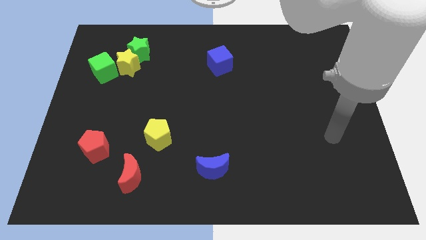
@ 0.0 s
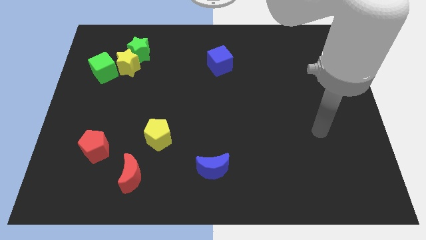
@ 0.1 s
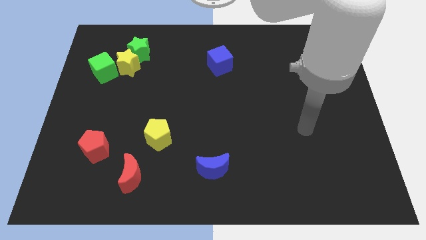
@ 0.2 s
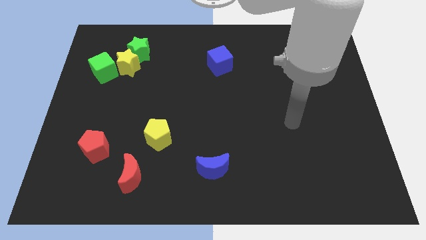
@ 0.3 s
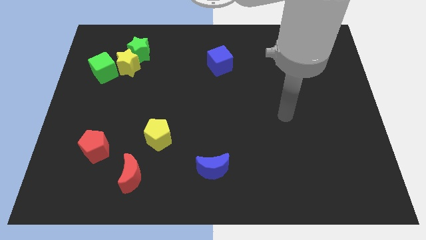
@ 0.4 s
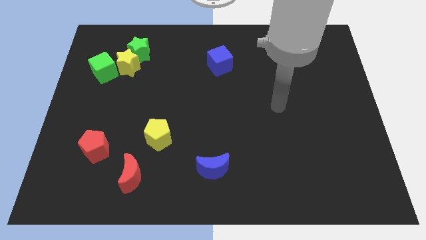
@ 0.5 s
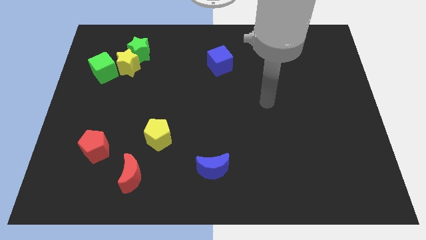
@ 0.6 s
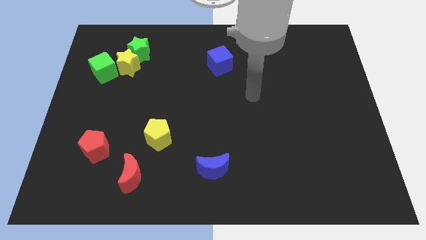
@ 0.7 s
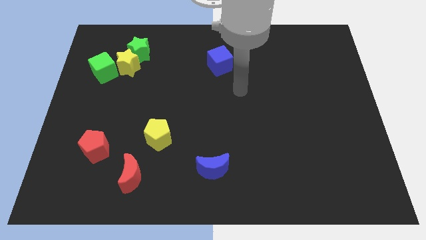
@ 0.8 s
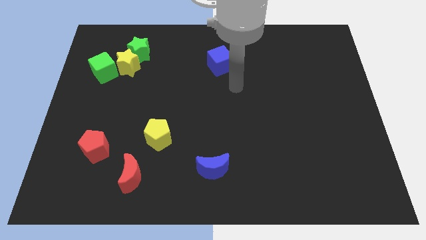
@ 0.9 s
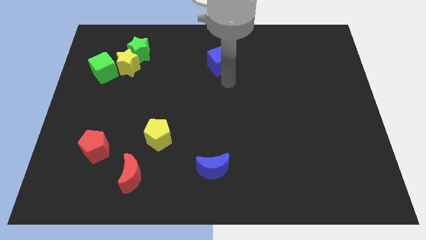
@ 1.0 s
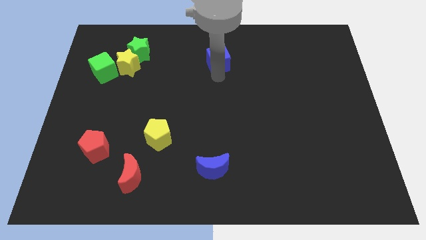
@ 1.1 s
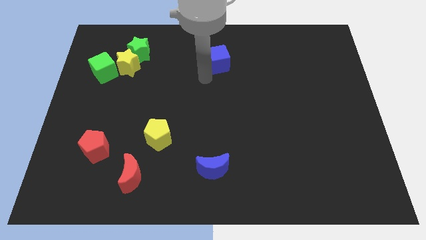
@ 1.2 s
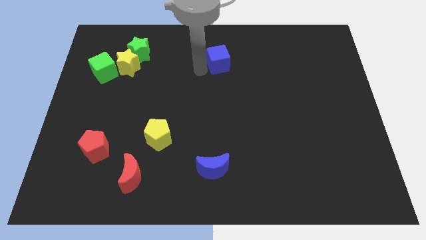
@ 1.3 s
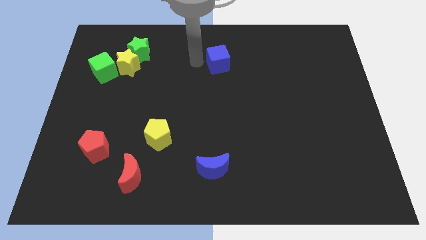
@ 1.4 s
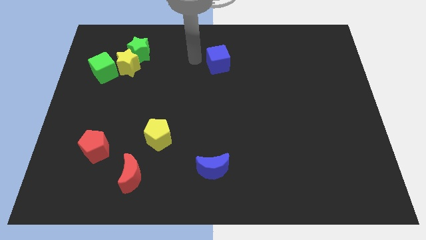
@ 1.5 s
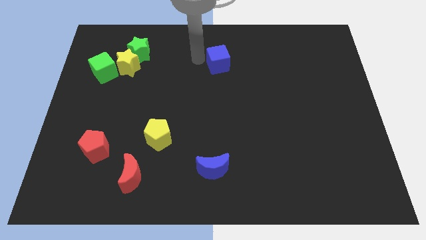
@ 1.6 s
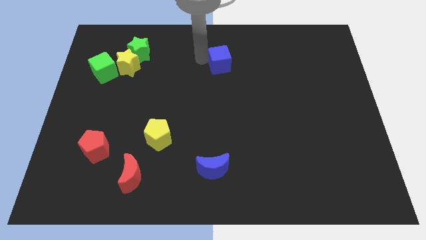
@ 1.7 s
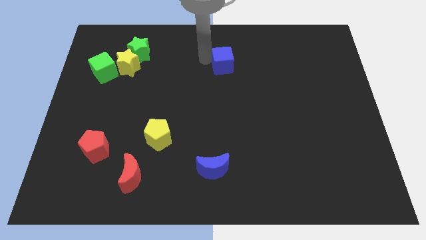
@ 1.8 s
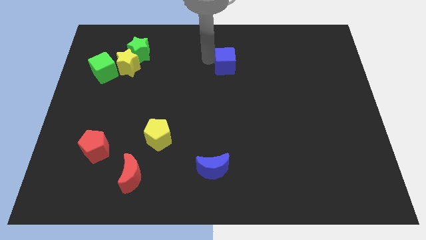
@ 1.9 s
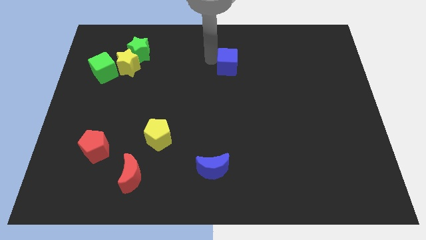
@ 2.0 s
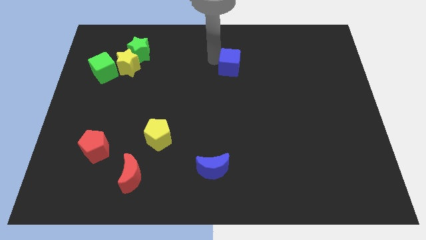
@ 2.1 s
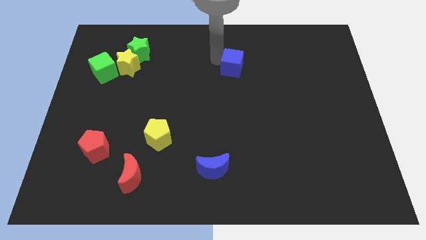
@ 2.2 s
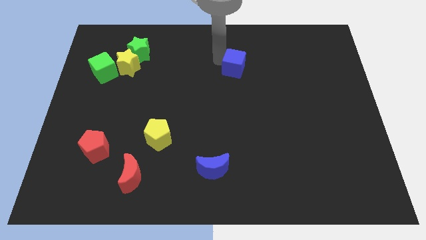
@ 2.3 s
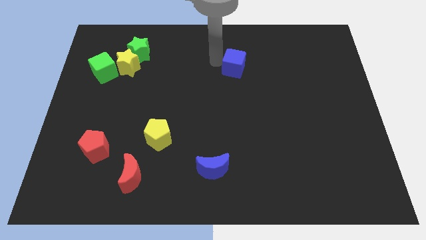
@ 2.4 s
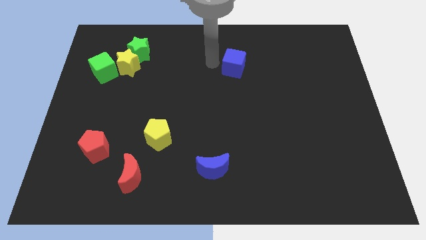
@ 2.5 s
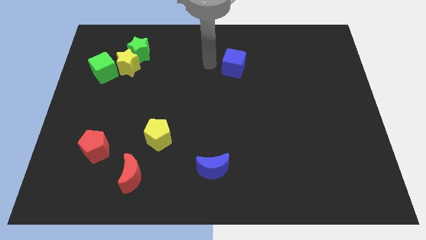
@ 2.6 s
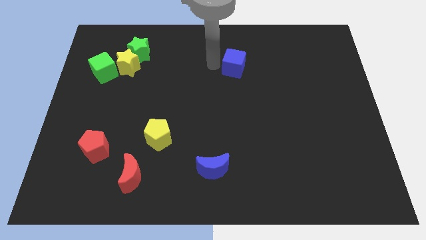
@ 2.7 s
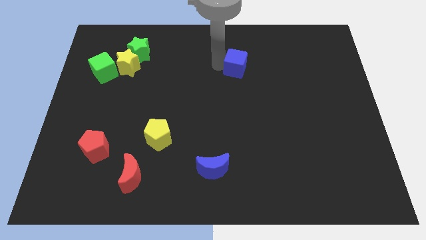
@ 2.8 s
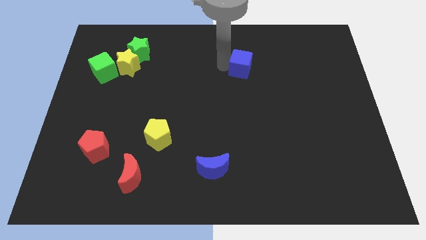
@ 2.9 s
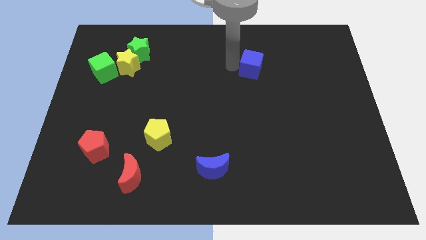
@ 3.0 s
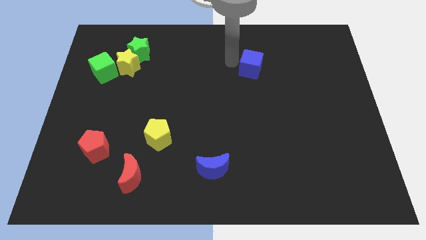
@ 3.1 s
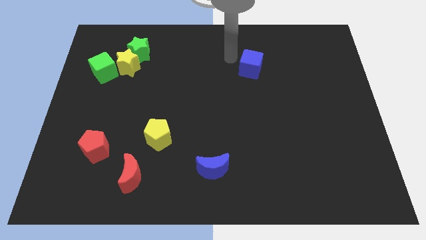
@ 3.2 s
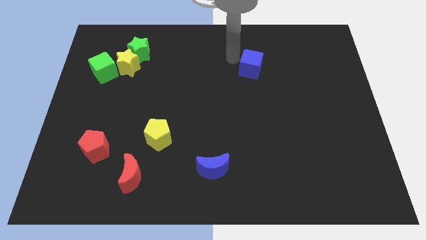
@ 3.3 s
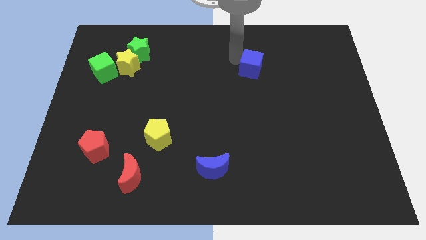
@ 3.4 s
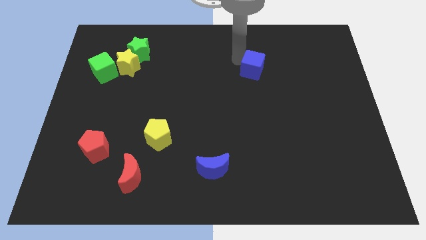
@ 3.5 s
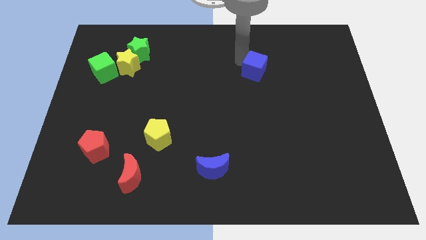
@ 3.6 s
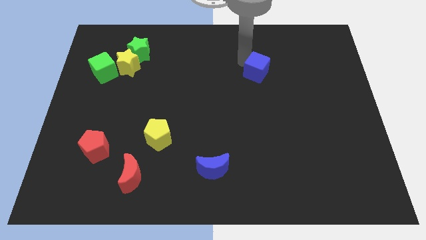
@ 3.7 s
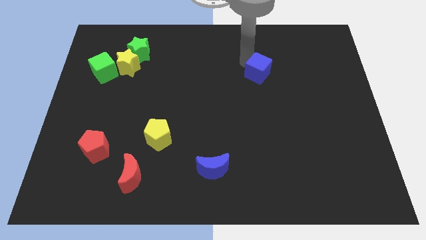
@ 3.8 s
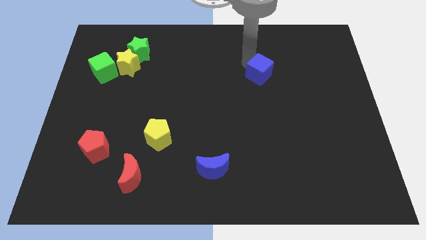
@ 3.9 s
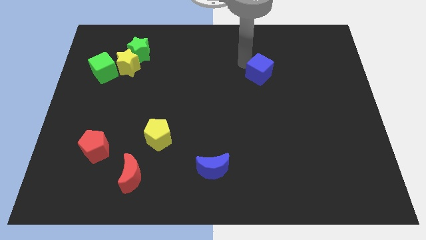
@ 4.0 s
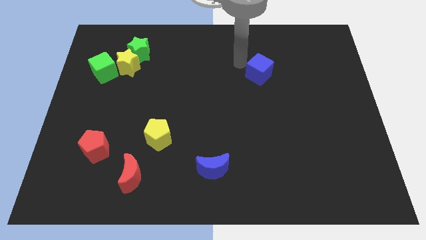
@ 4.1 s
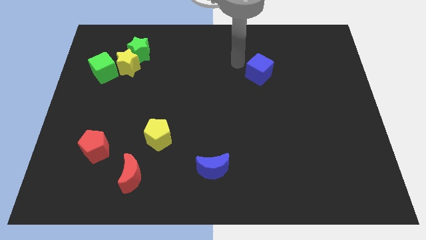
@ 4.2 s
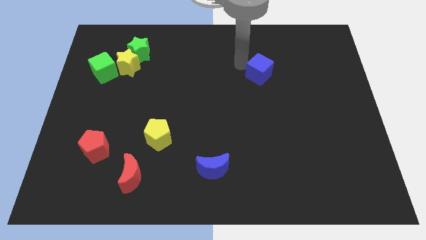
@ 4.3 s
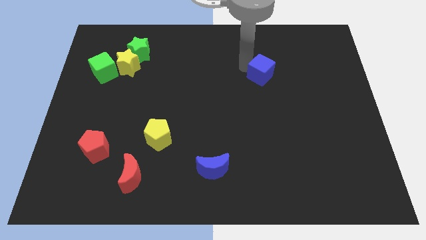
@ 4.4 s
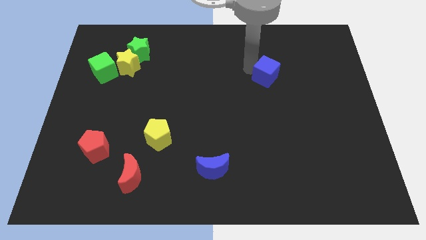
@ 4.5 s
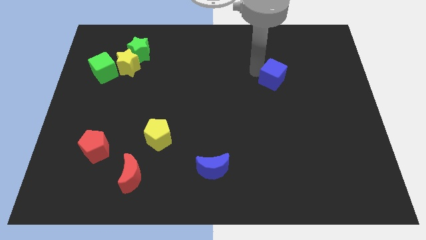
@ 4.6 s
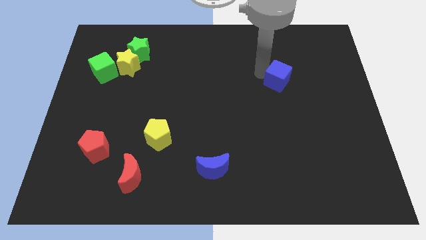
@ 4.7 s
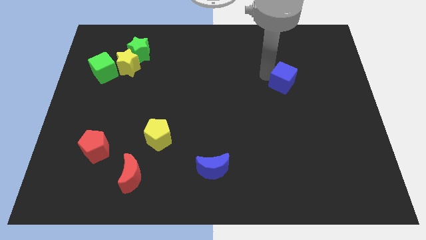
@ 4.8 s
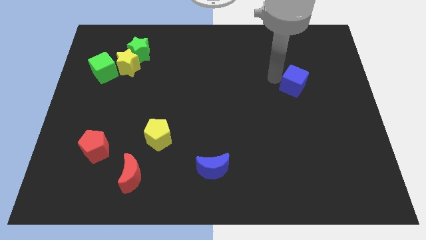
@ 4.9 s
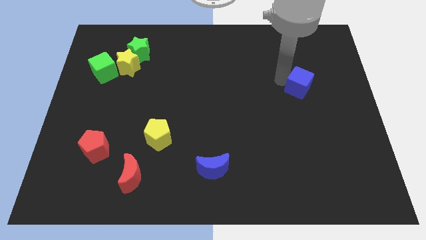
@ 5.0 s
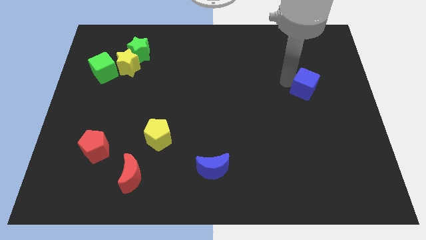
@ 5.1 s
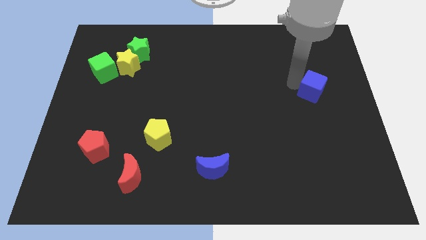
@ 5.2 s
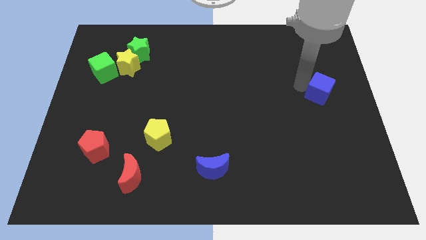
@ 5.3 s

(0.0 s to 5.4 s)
slide the blue cube to the center right

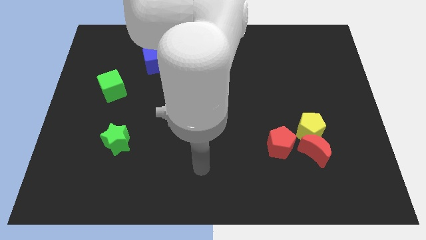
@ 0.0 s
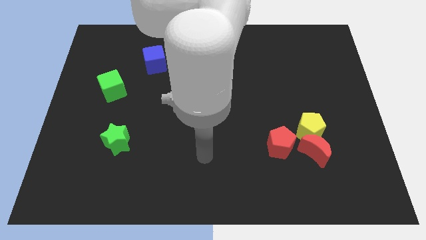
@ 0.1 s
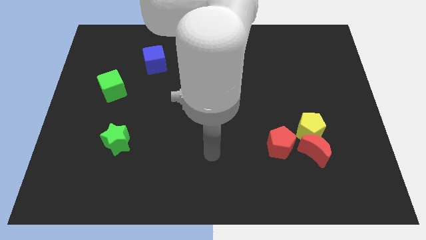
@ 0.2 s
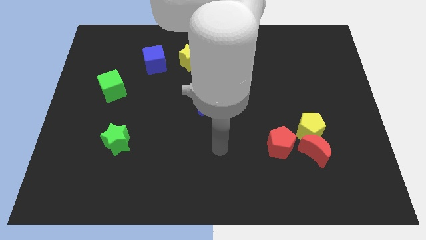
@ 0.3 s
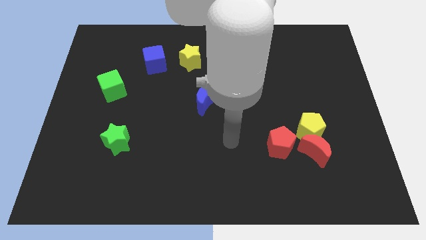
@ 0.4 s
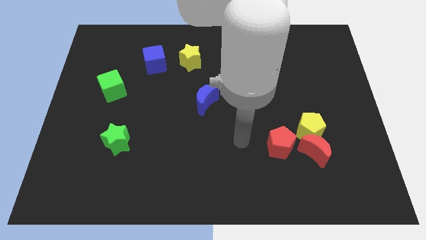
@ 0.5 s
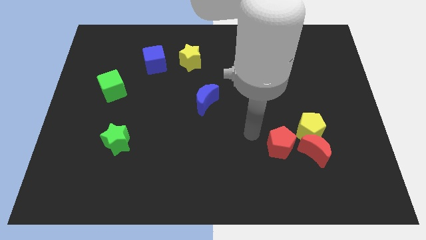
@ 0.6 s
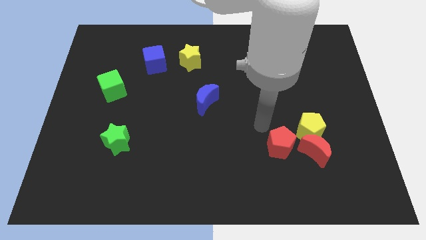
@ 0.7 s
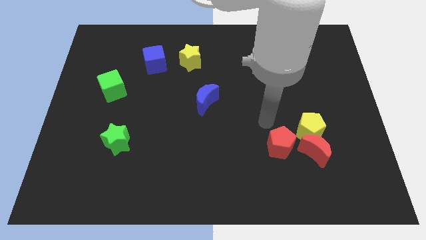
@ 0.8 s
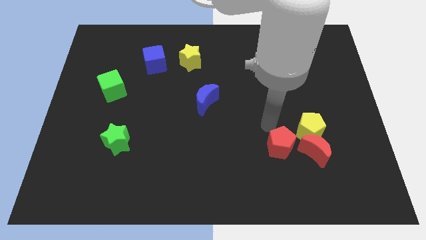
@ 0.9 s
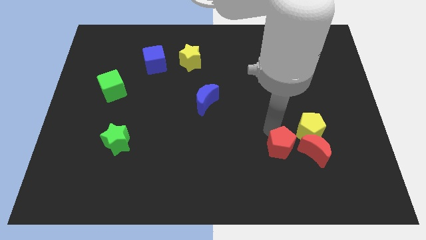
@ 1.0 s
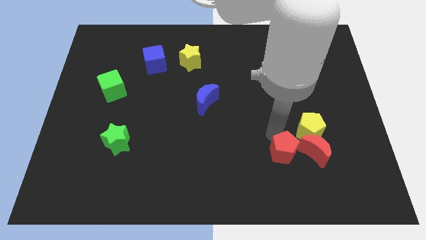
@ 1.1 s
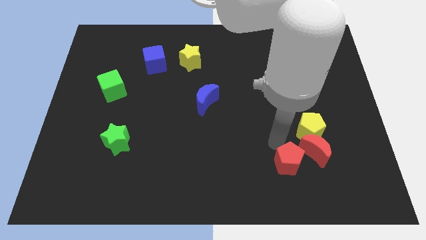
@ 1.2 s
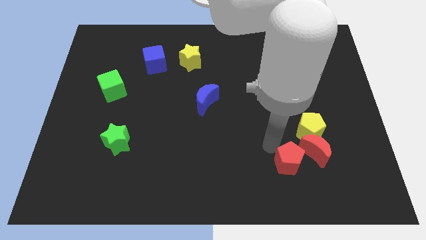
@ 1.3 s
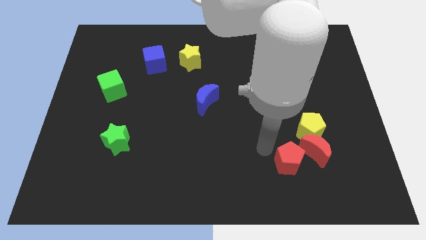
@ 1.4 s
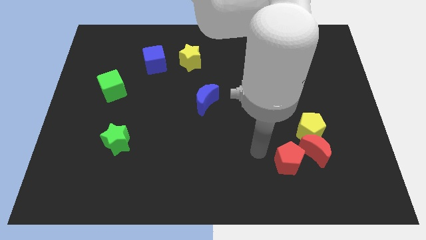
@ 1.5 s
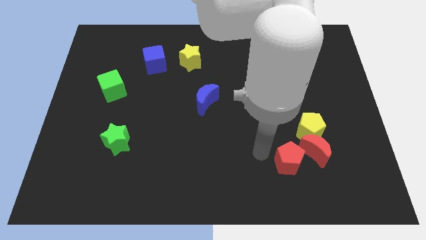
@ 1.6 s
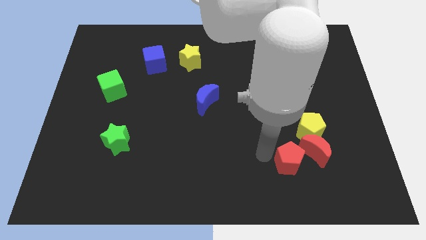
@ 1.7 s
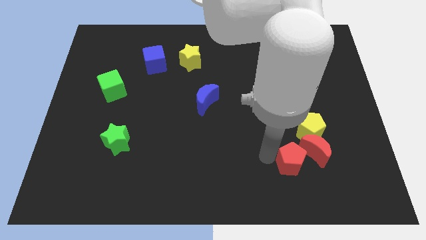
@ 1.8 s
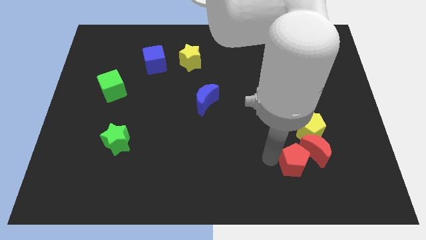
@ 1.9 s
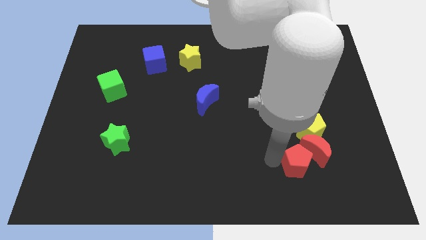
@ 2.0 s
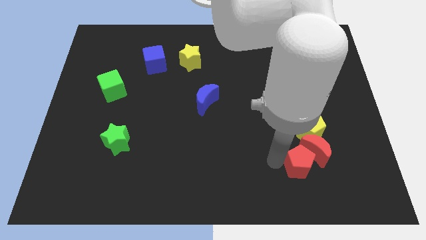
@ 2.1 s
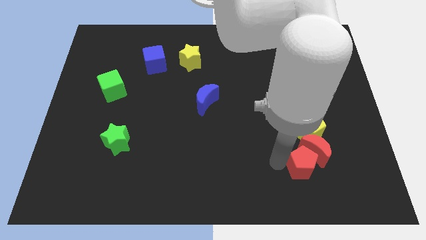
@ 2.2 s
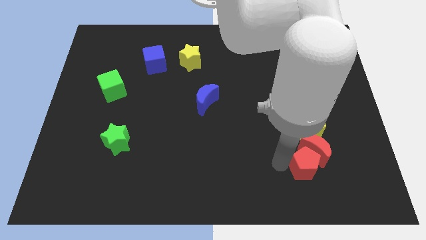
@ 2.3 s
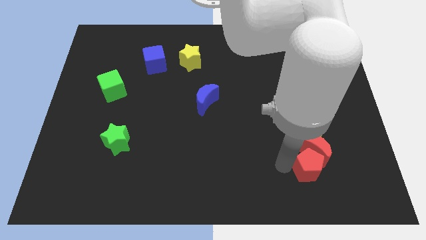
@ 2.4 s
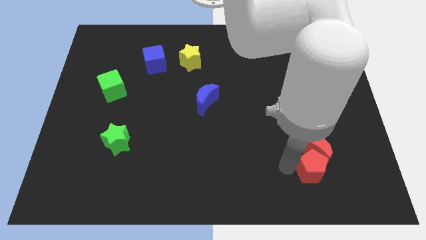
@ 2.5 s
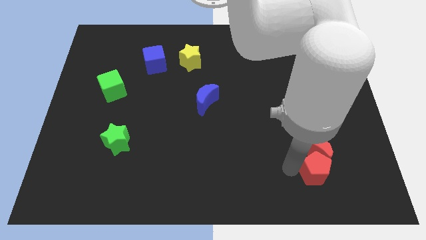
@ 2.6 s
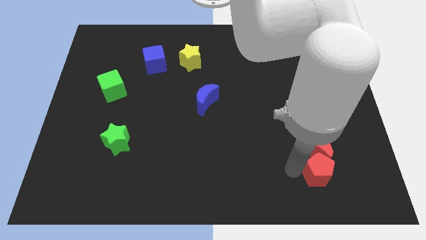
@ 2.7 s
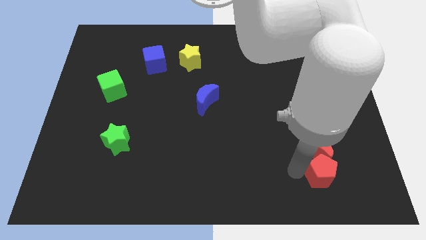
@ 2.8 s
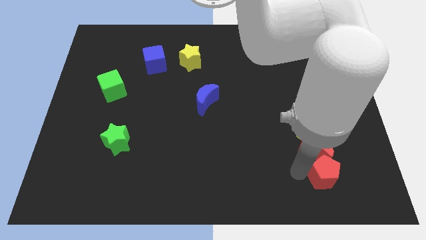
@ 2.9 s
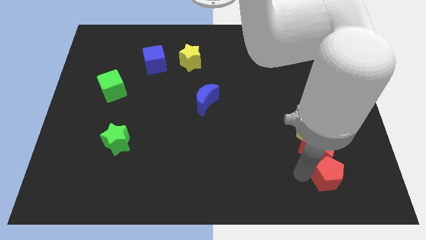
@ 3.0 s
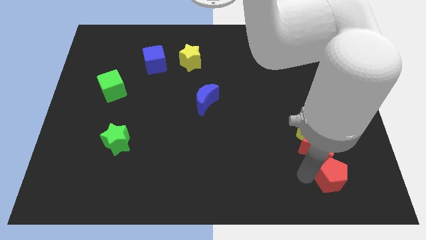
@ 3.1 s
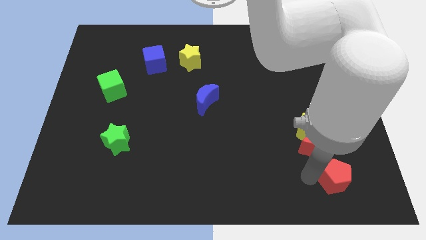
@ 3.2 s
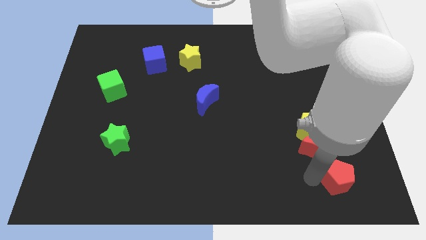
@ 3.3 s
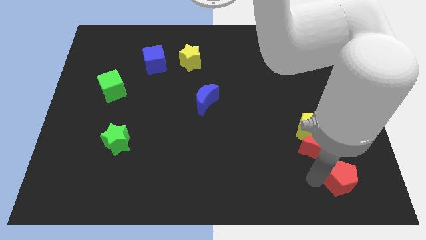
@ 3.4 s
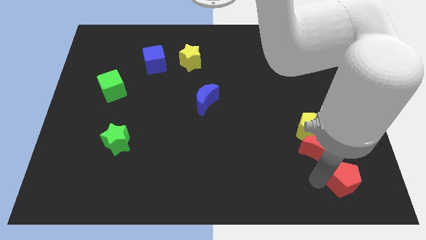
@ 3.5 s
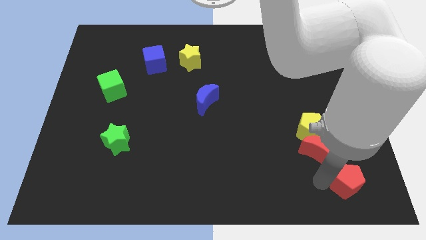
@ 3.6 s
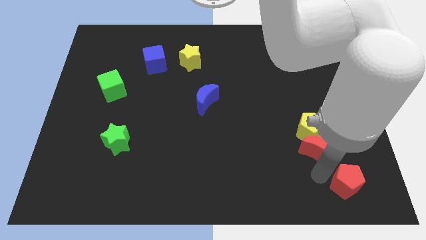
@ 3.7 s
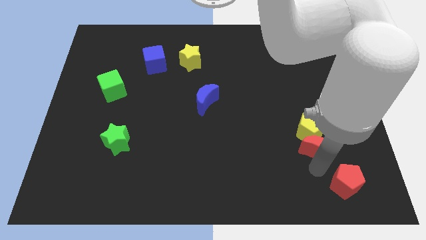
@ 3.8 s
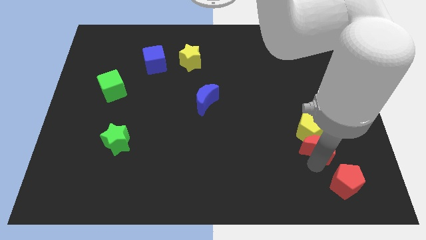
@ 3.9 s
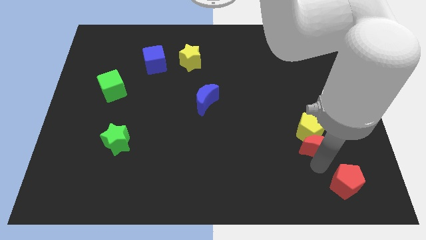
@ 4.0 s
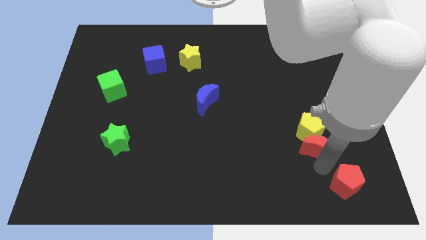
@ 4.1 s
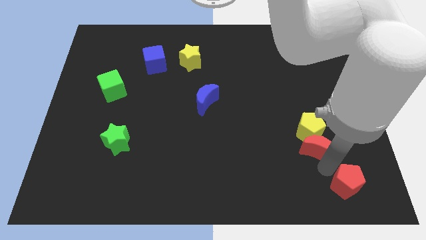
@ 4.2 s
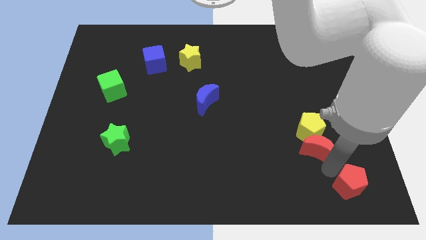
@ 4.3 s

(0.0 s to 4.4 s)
push the red pentagon to the bottom right
